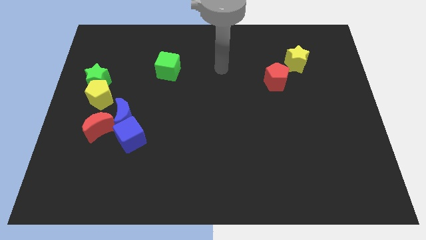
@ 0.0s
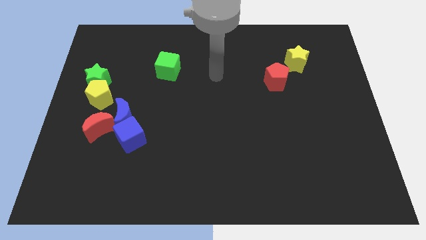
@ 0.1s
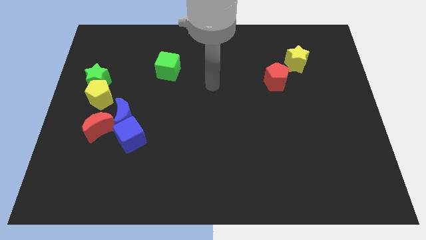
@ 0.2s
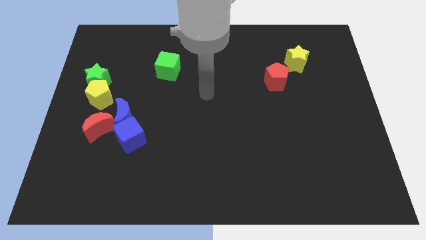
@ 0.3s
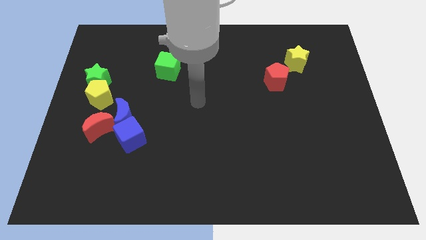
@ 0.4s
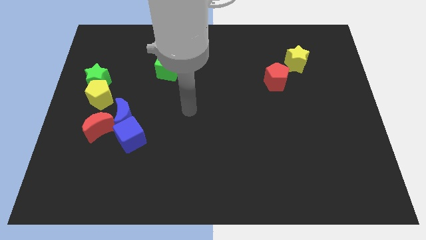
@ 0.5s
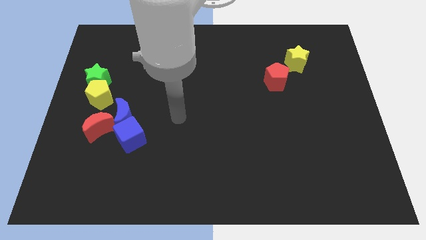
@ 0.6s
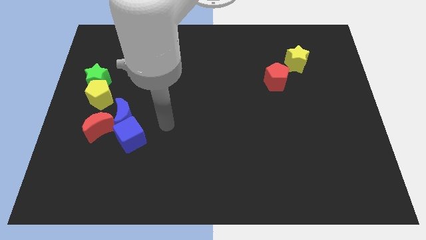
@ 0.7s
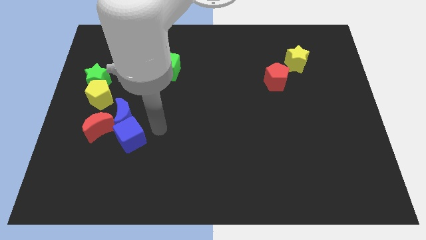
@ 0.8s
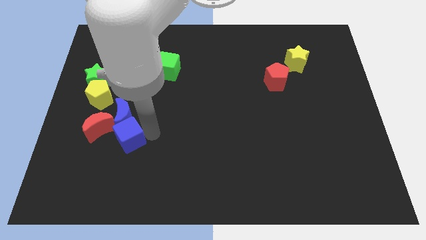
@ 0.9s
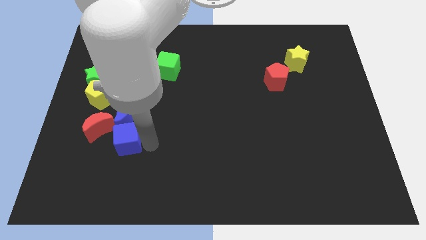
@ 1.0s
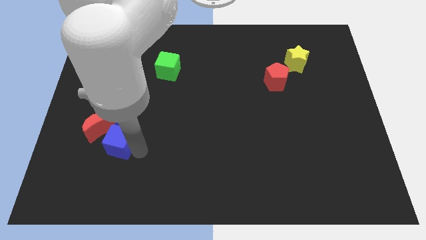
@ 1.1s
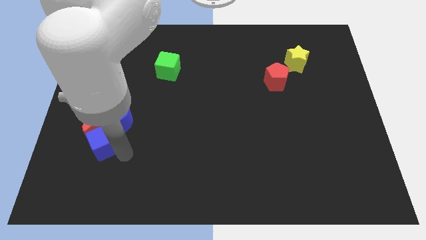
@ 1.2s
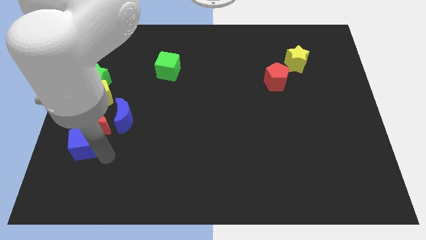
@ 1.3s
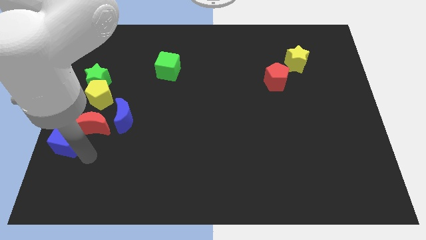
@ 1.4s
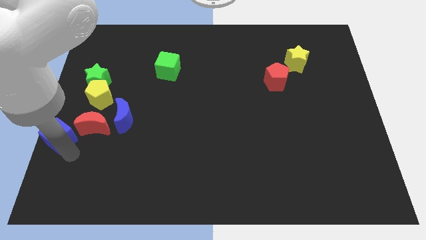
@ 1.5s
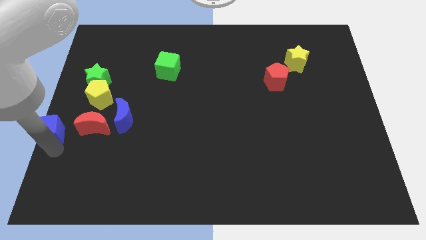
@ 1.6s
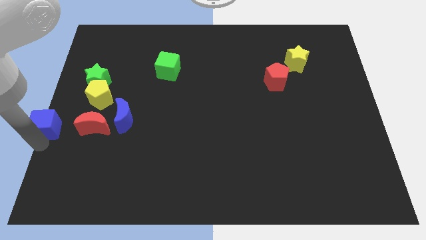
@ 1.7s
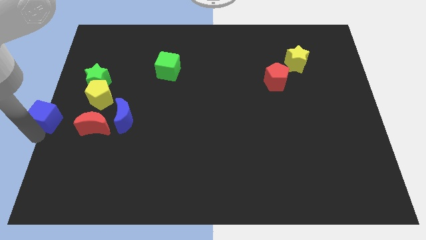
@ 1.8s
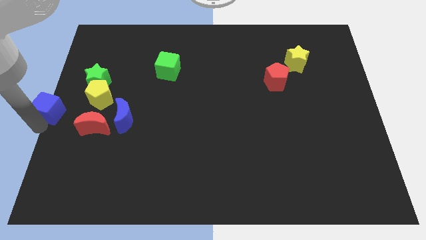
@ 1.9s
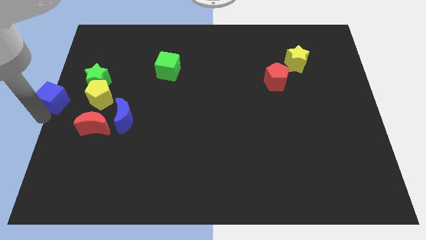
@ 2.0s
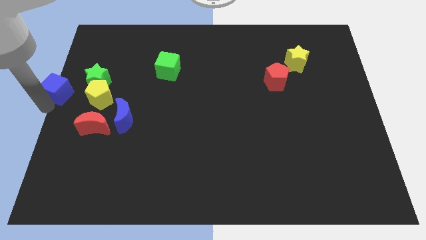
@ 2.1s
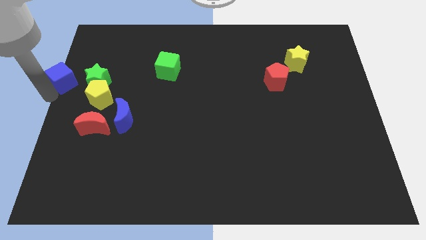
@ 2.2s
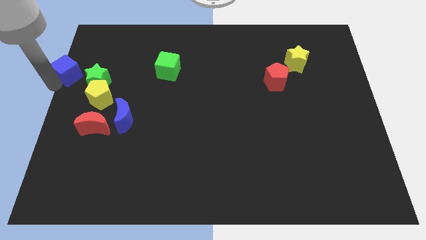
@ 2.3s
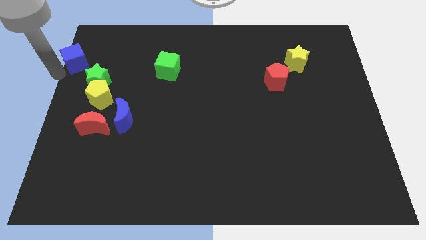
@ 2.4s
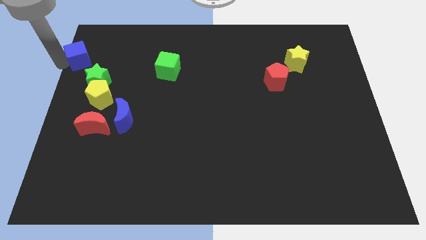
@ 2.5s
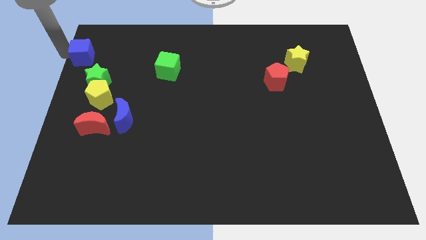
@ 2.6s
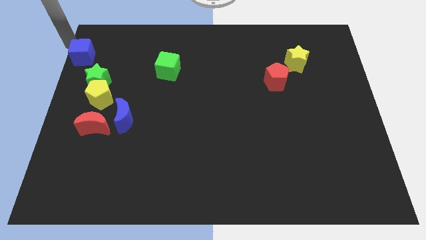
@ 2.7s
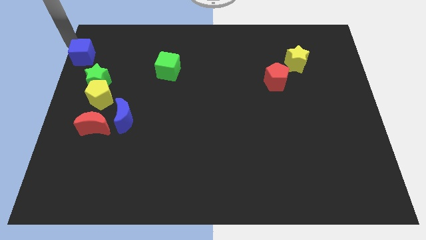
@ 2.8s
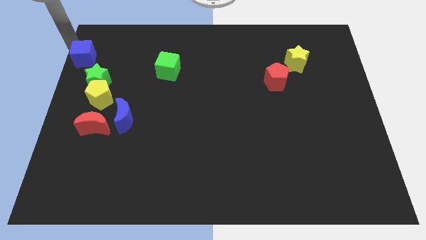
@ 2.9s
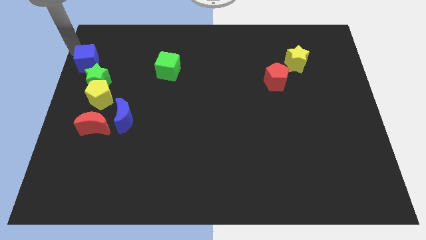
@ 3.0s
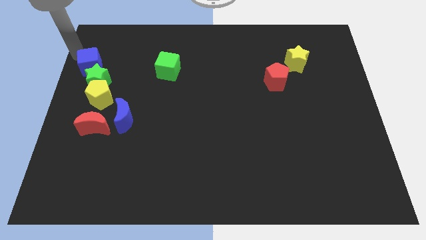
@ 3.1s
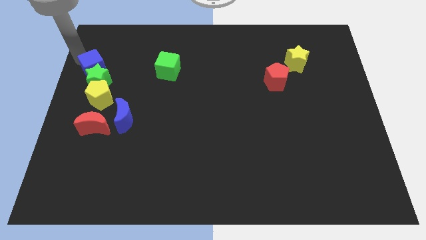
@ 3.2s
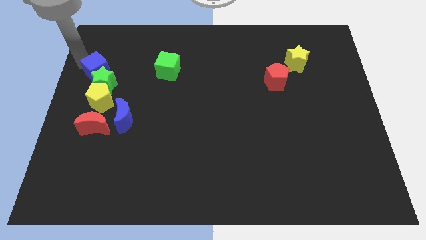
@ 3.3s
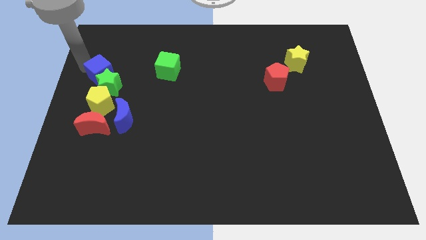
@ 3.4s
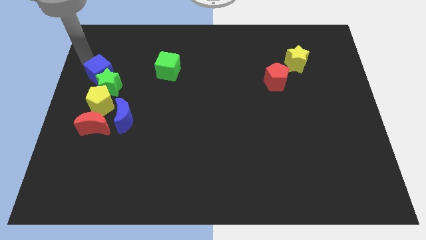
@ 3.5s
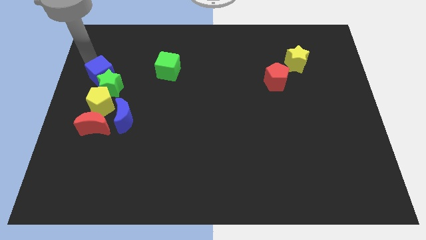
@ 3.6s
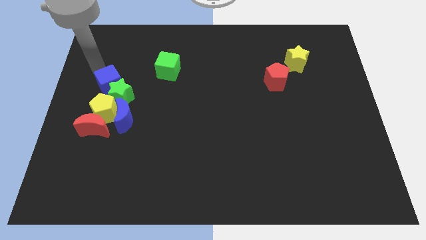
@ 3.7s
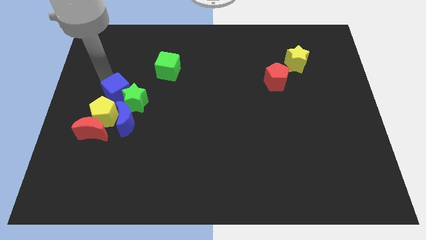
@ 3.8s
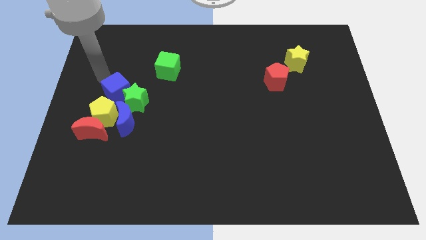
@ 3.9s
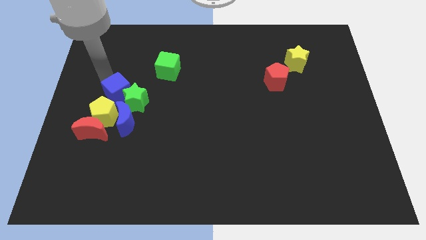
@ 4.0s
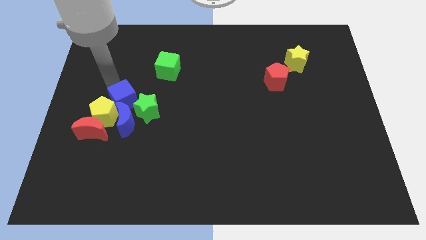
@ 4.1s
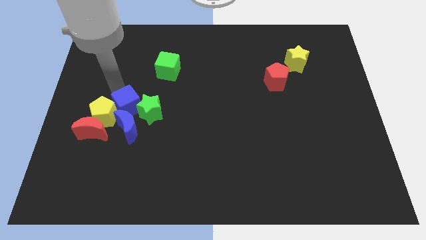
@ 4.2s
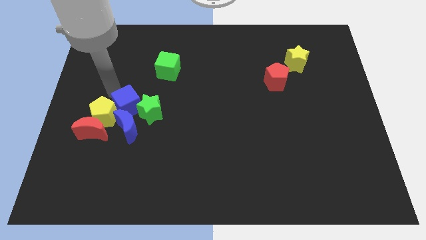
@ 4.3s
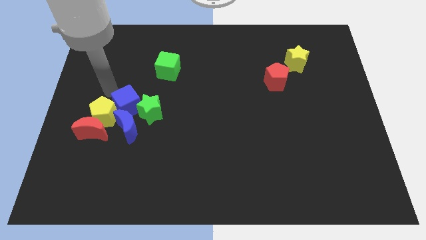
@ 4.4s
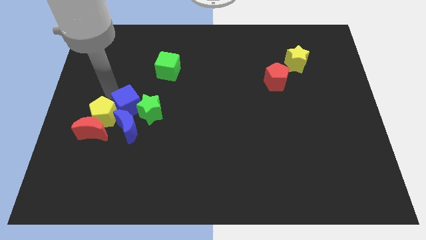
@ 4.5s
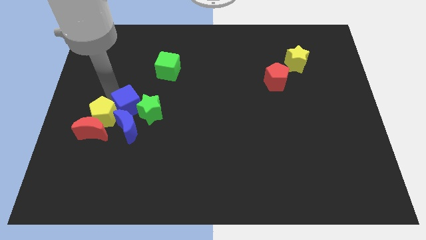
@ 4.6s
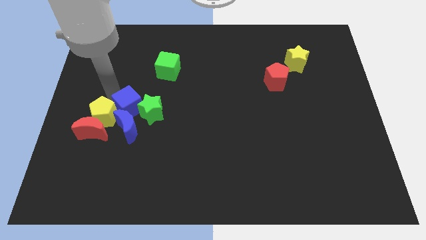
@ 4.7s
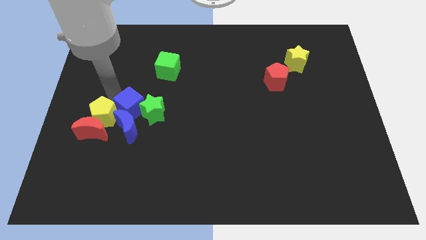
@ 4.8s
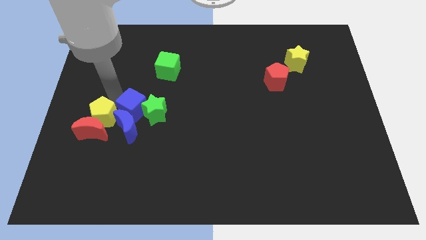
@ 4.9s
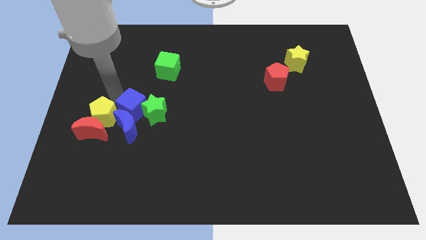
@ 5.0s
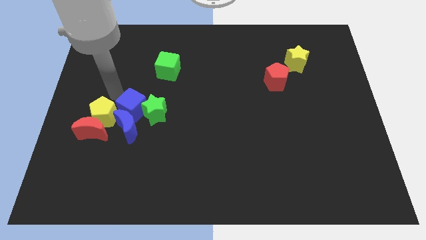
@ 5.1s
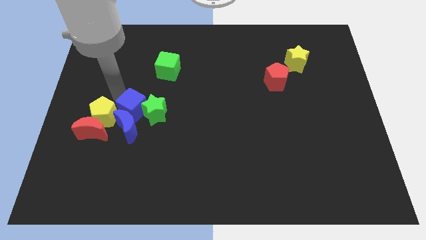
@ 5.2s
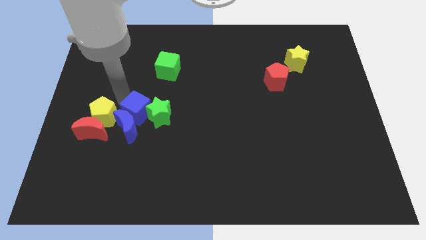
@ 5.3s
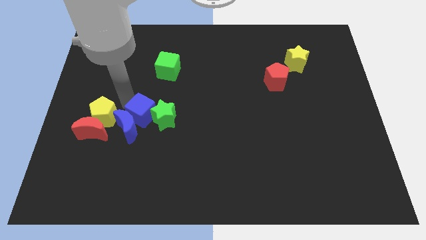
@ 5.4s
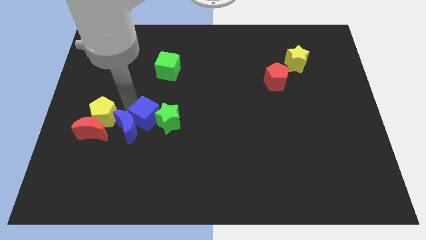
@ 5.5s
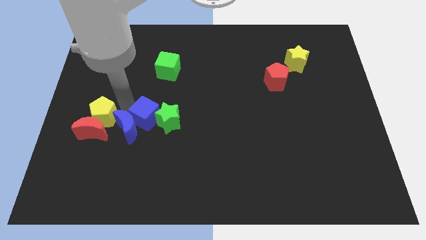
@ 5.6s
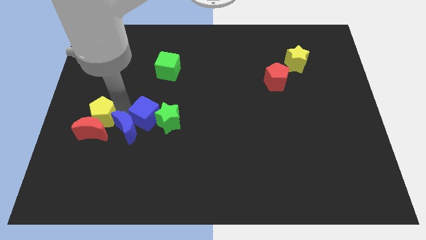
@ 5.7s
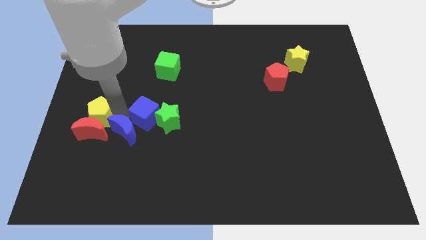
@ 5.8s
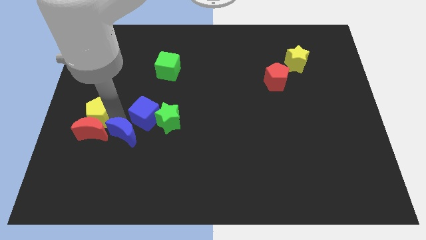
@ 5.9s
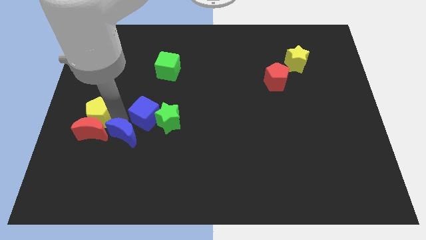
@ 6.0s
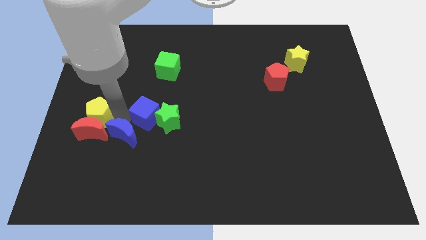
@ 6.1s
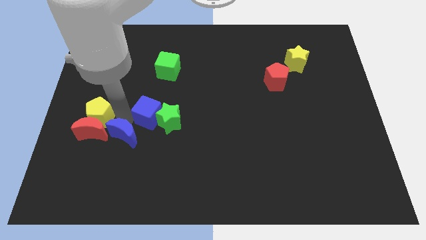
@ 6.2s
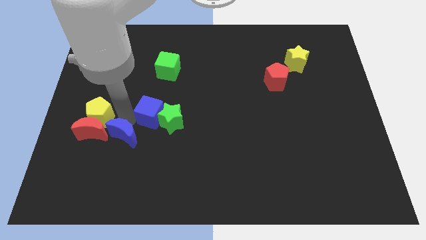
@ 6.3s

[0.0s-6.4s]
slide the blue cube a little diagonally up and to the right

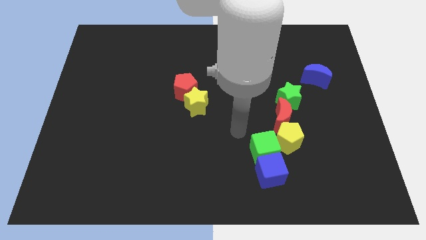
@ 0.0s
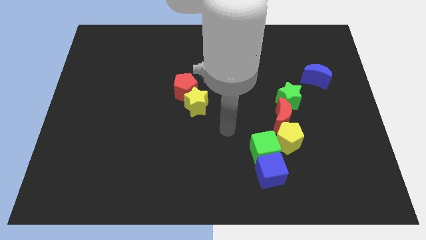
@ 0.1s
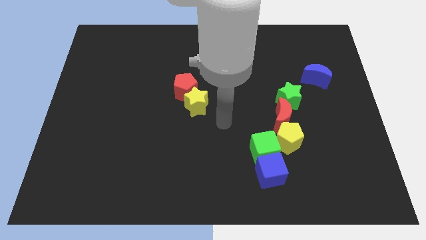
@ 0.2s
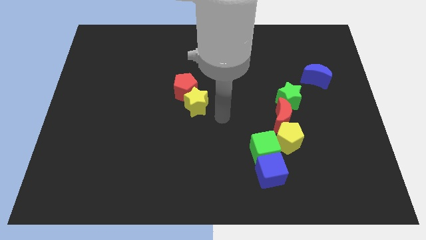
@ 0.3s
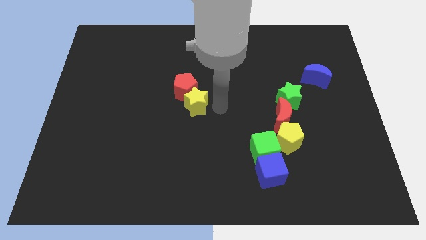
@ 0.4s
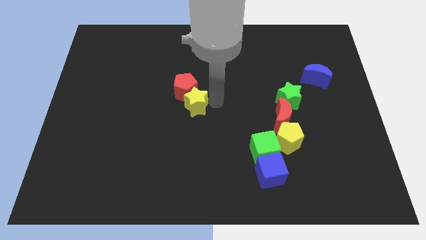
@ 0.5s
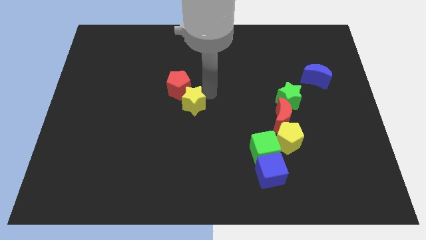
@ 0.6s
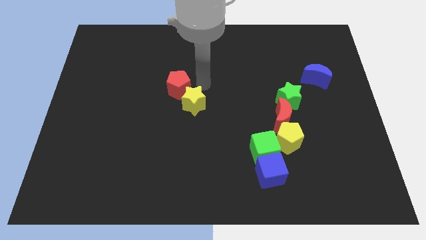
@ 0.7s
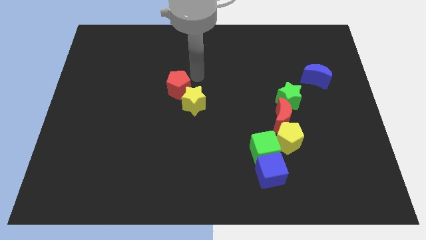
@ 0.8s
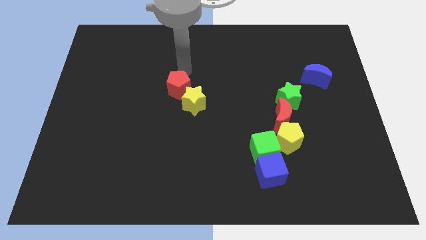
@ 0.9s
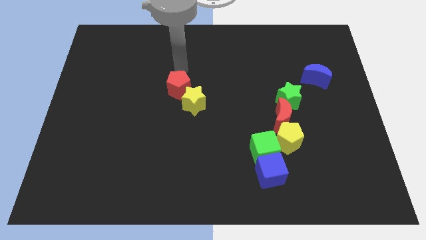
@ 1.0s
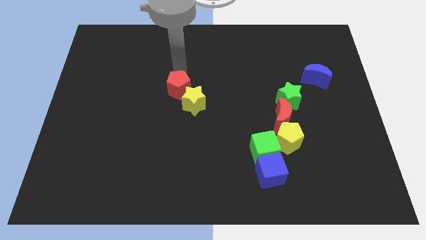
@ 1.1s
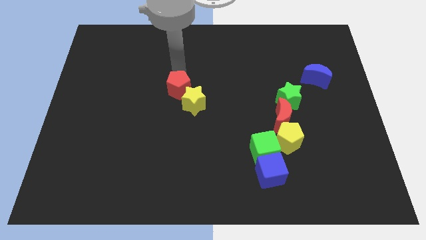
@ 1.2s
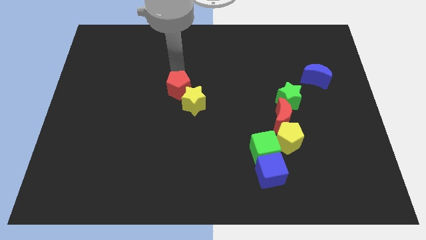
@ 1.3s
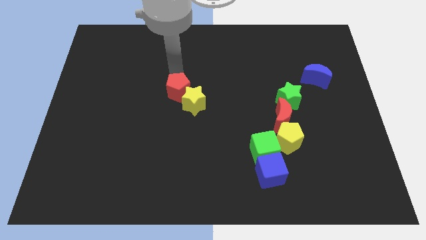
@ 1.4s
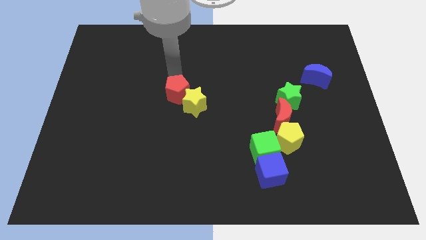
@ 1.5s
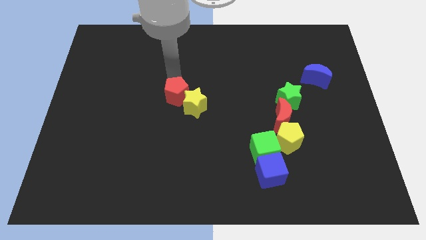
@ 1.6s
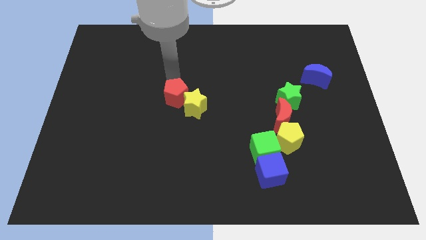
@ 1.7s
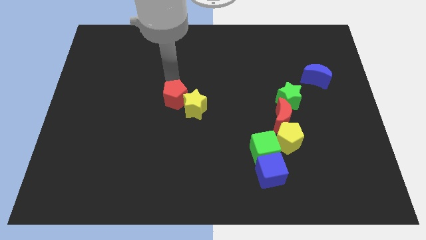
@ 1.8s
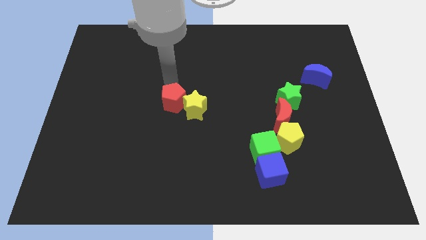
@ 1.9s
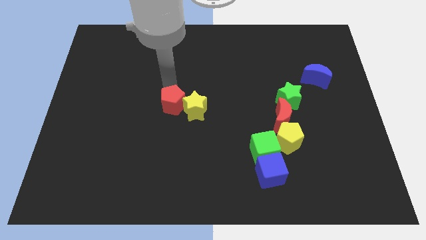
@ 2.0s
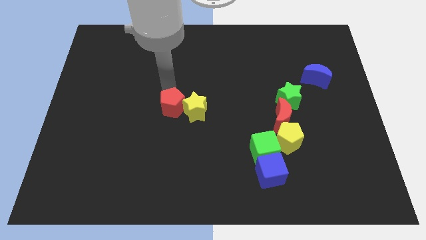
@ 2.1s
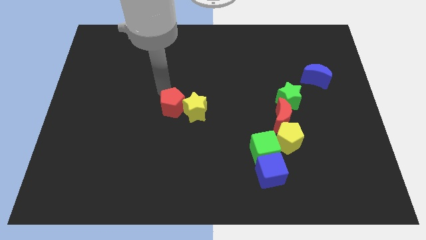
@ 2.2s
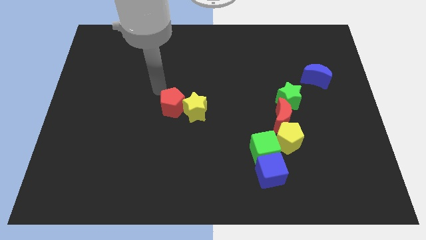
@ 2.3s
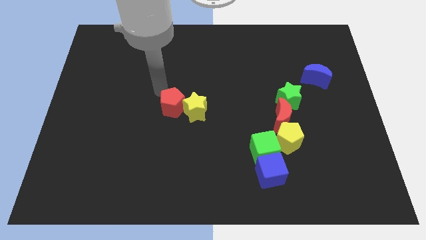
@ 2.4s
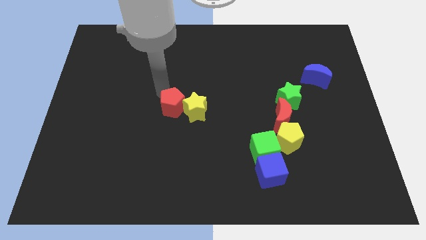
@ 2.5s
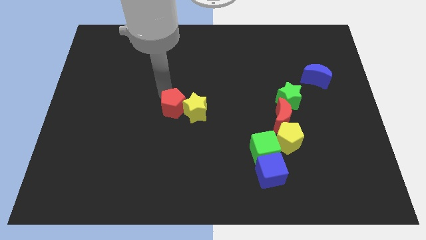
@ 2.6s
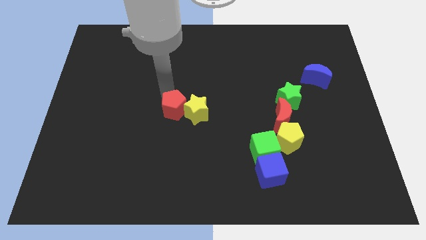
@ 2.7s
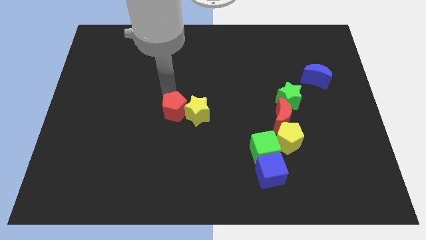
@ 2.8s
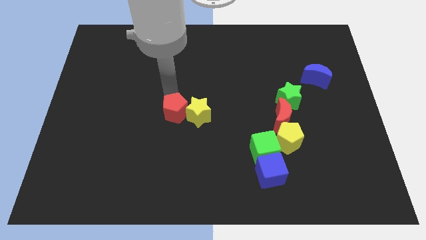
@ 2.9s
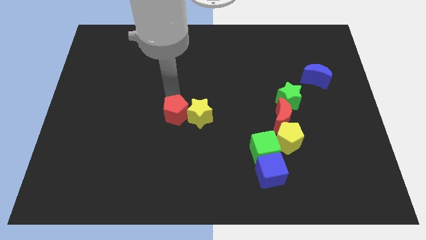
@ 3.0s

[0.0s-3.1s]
slightly move the red pentagon downwards
